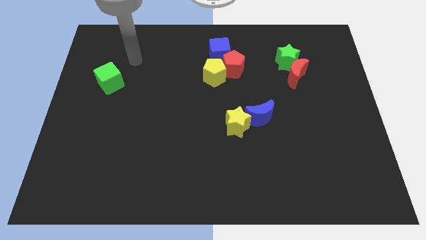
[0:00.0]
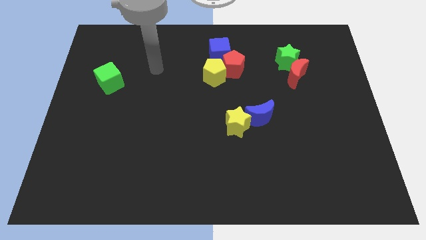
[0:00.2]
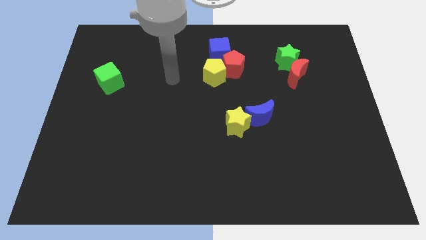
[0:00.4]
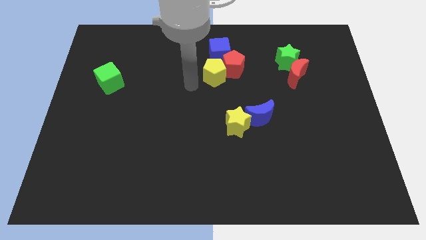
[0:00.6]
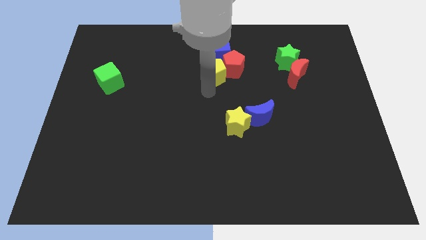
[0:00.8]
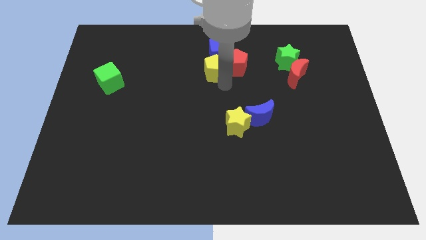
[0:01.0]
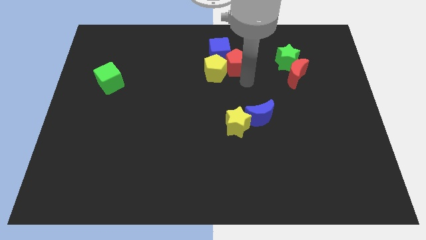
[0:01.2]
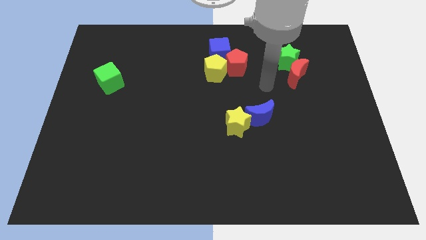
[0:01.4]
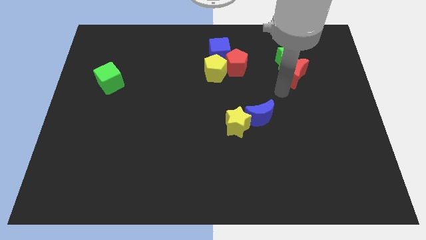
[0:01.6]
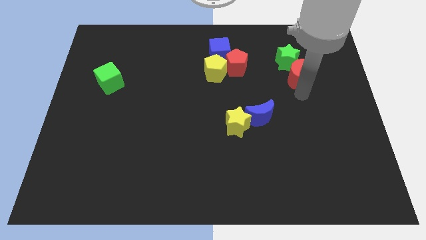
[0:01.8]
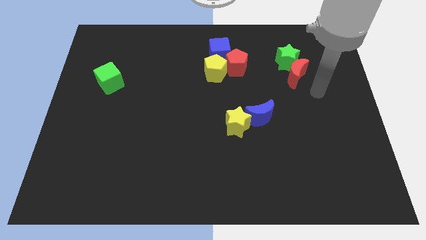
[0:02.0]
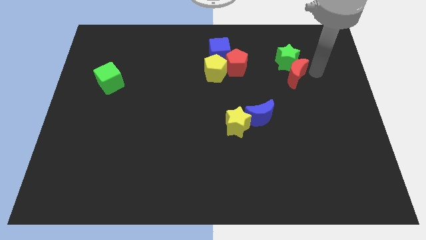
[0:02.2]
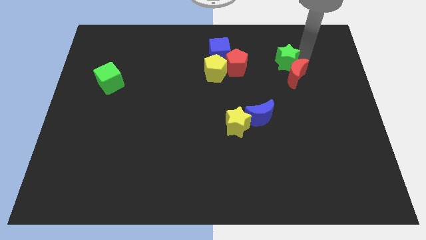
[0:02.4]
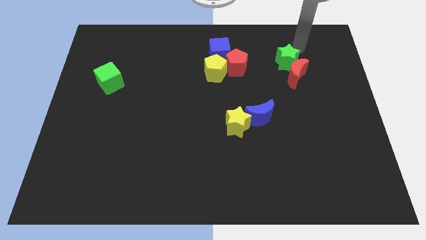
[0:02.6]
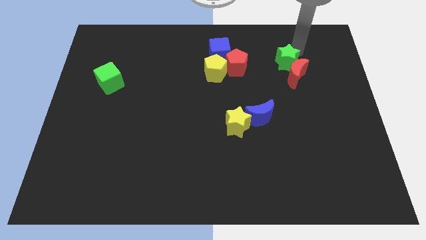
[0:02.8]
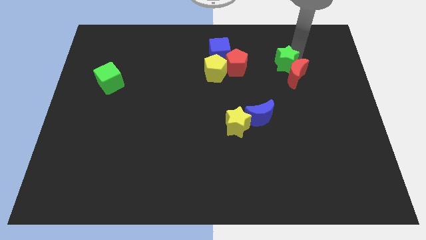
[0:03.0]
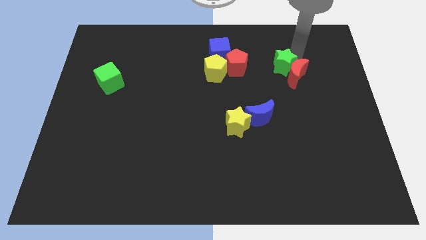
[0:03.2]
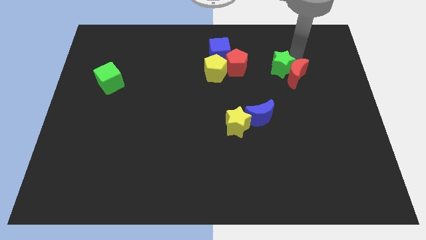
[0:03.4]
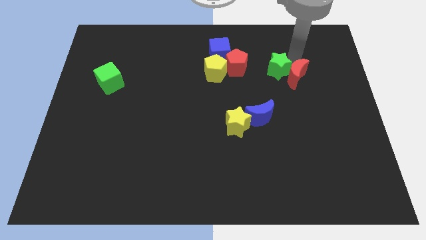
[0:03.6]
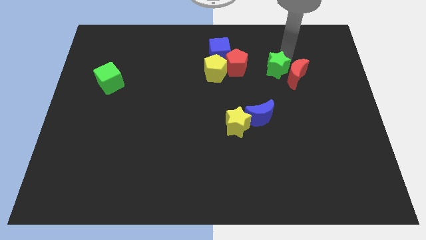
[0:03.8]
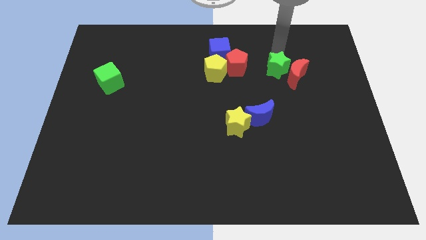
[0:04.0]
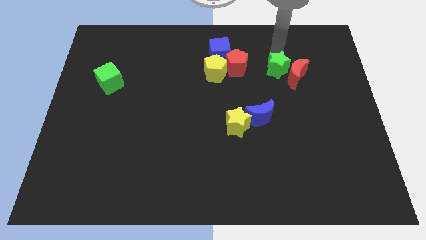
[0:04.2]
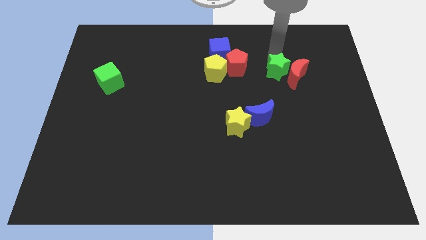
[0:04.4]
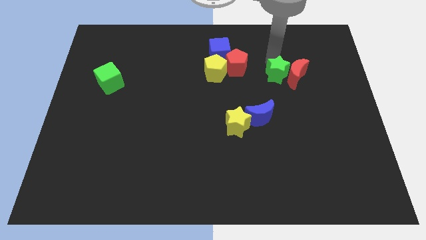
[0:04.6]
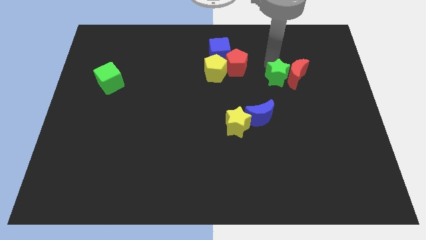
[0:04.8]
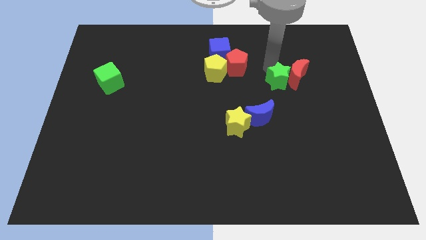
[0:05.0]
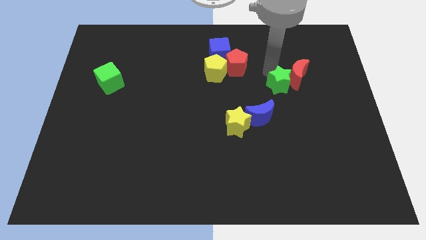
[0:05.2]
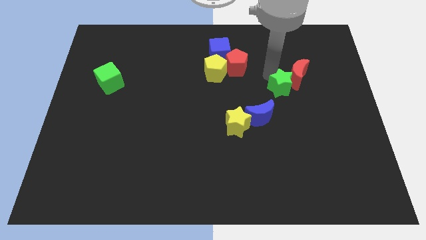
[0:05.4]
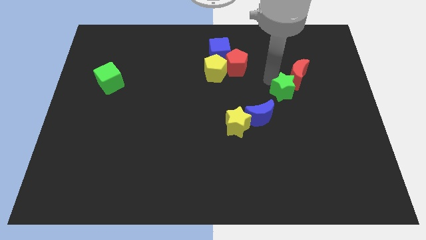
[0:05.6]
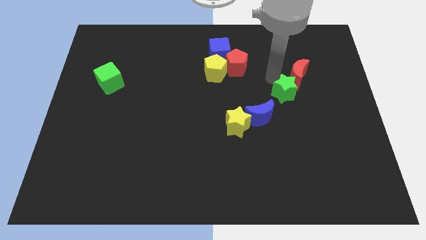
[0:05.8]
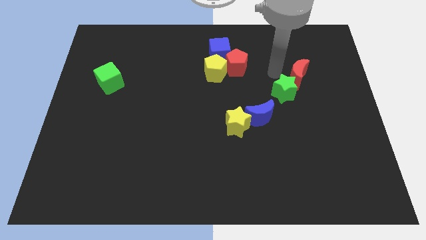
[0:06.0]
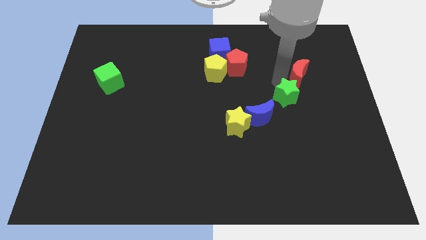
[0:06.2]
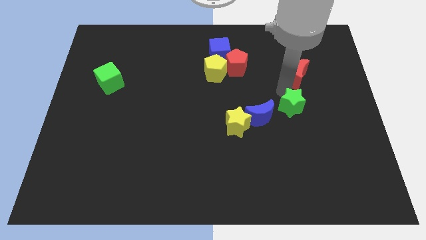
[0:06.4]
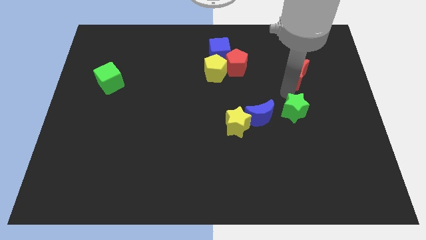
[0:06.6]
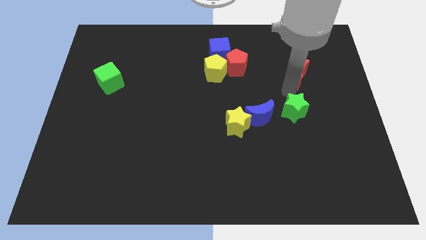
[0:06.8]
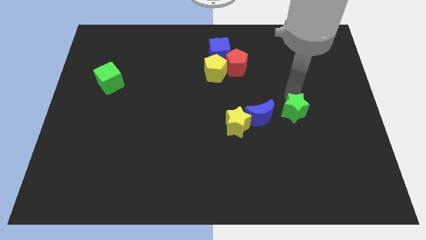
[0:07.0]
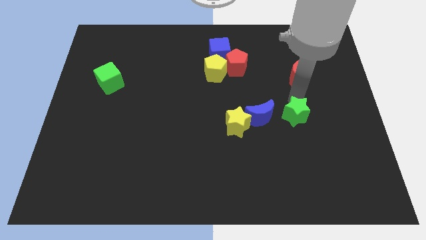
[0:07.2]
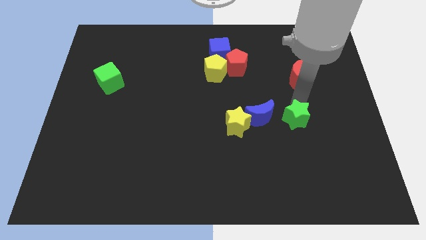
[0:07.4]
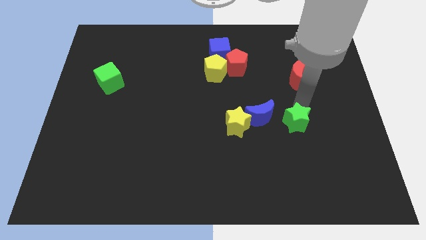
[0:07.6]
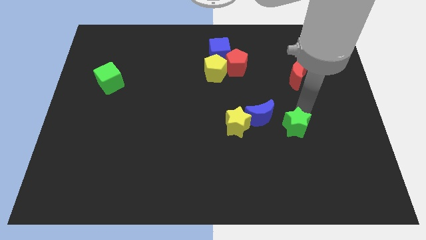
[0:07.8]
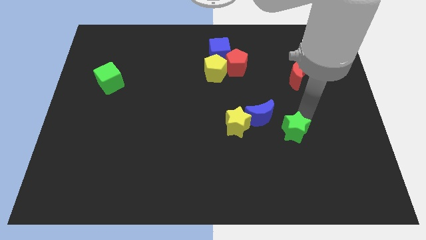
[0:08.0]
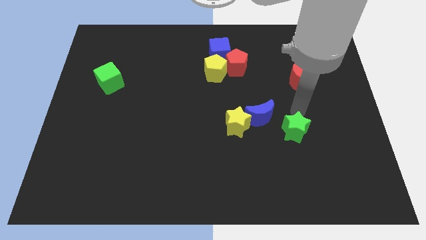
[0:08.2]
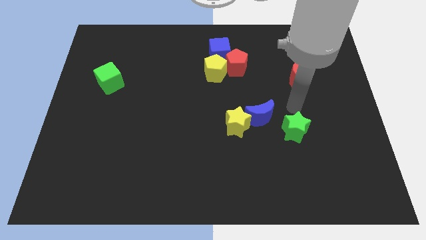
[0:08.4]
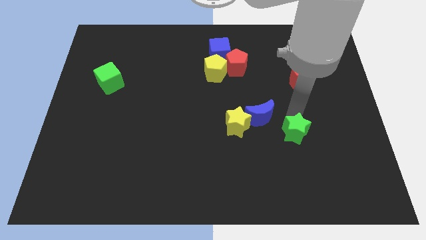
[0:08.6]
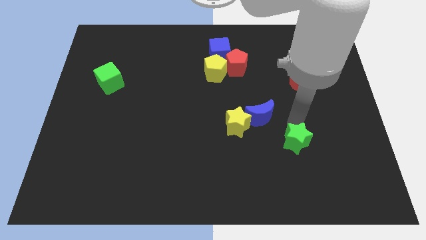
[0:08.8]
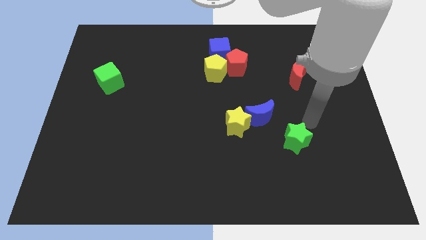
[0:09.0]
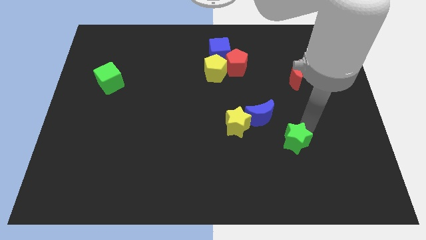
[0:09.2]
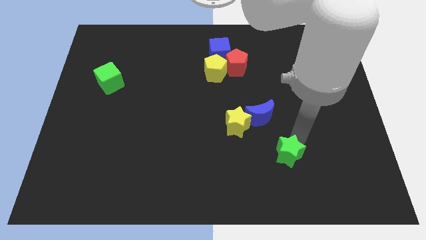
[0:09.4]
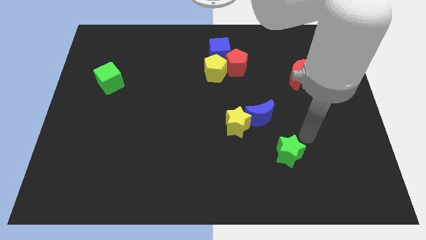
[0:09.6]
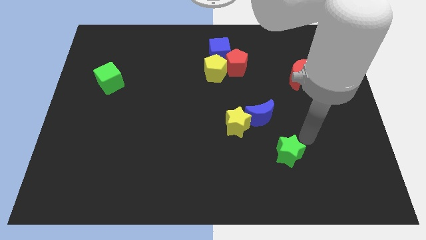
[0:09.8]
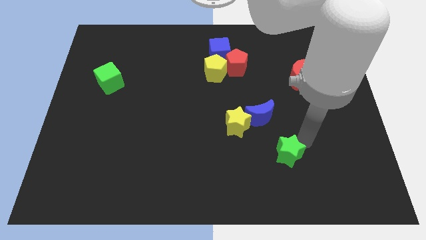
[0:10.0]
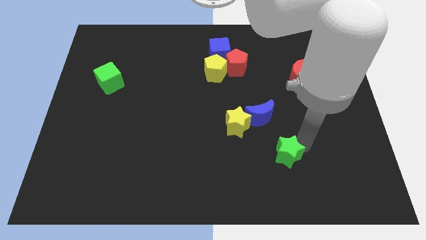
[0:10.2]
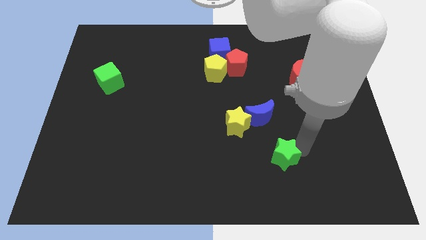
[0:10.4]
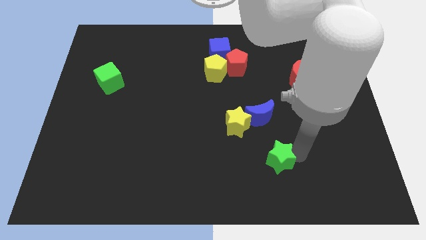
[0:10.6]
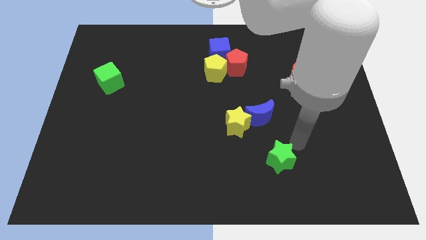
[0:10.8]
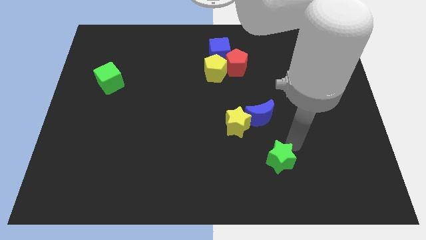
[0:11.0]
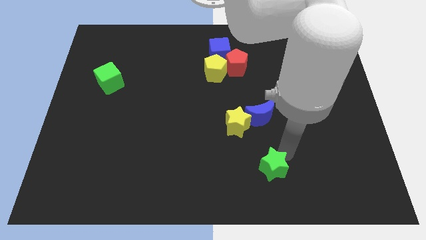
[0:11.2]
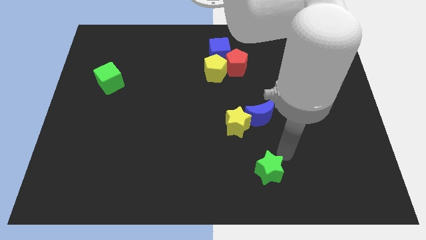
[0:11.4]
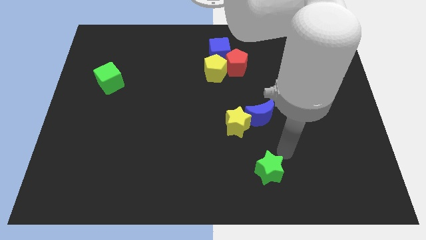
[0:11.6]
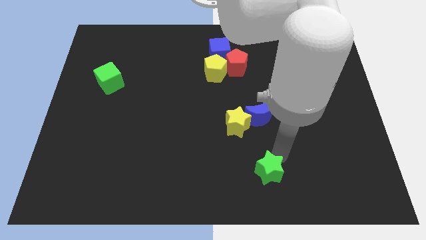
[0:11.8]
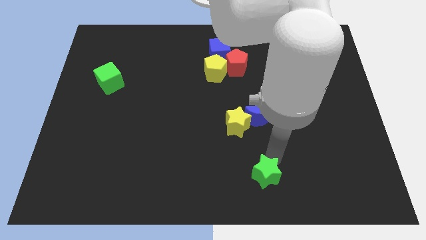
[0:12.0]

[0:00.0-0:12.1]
move the green star to the bottom side
